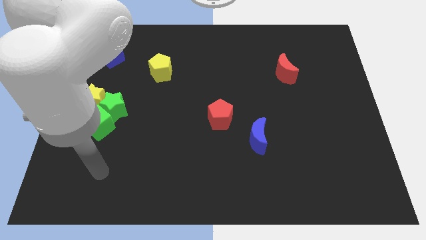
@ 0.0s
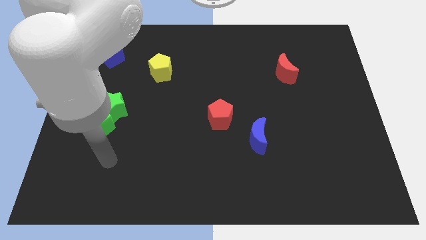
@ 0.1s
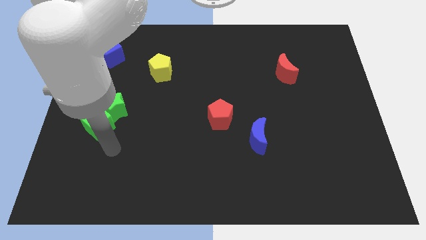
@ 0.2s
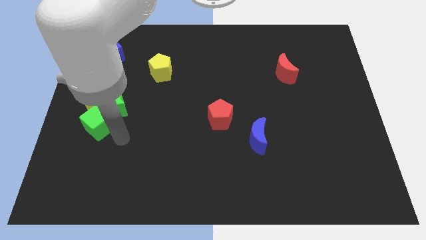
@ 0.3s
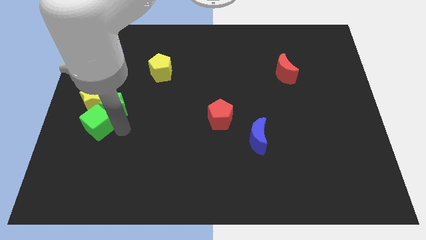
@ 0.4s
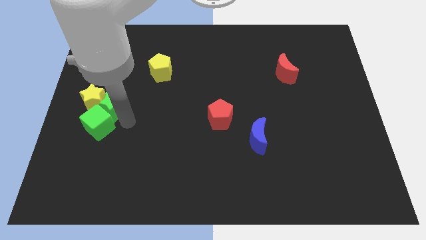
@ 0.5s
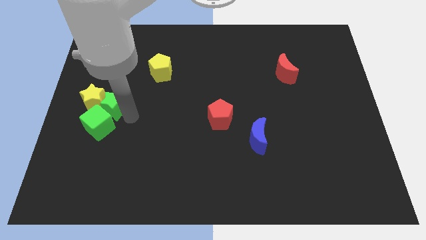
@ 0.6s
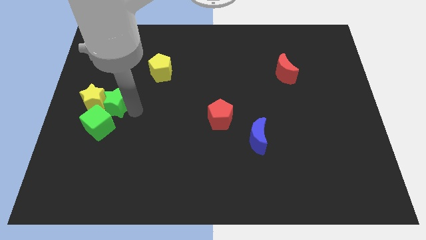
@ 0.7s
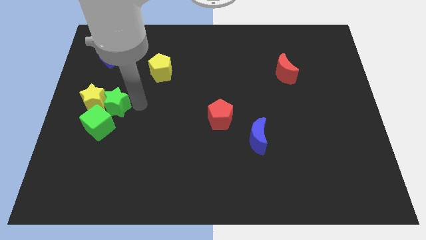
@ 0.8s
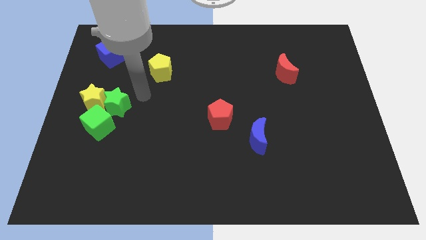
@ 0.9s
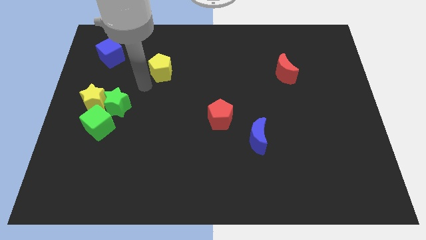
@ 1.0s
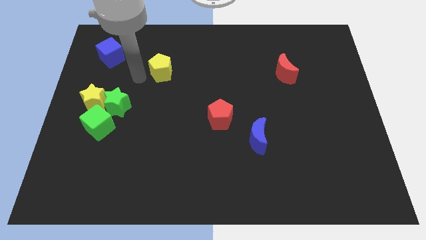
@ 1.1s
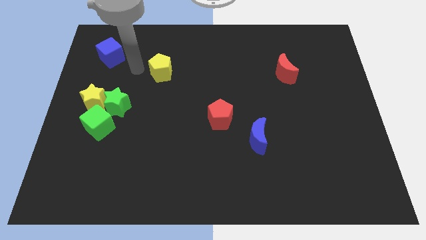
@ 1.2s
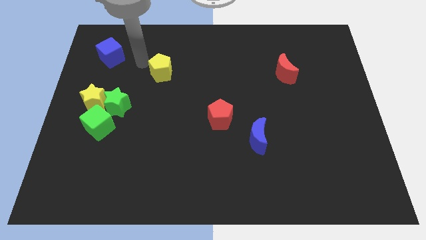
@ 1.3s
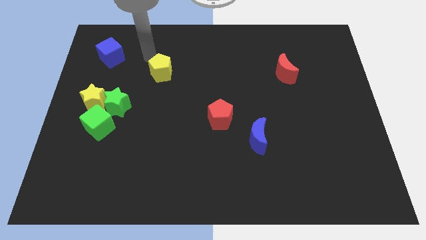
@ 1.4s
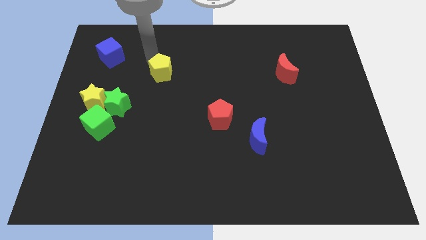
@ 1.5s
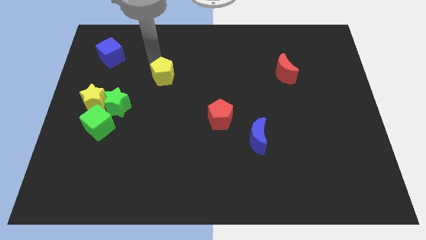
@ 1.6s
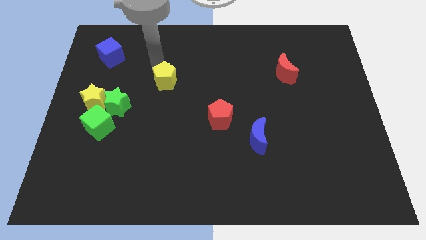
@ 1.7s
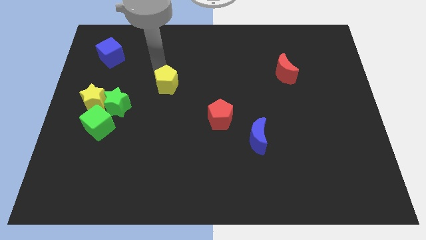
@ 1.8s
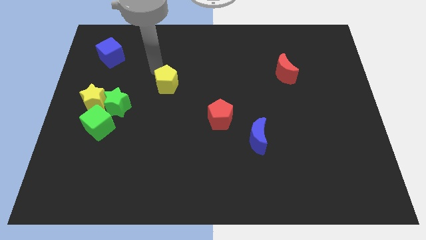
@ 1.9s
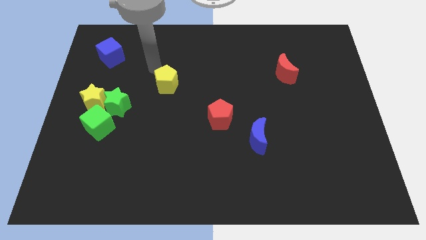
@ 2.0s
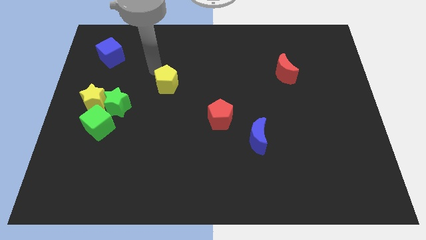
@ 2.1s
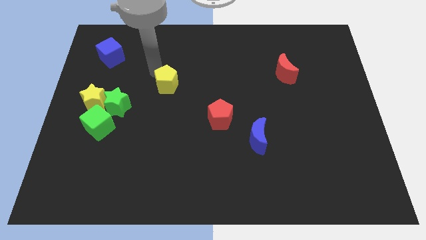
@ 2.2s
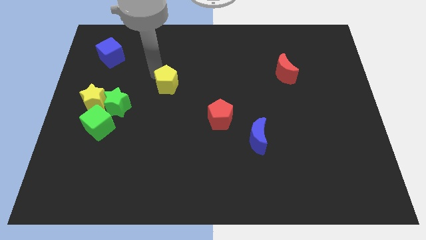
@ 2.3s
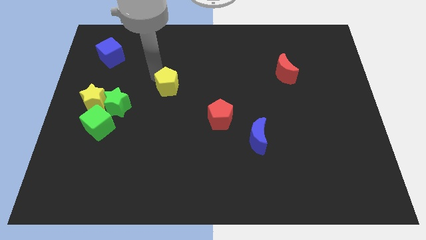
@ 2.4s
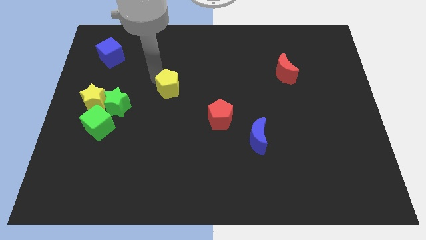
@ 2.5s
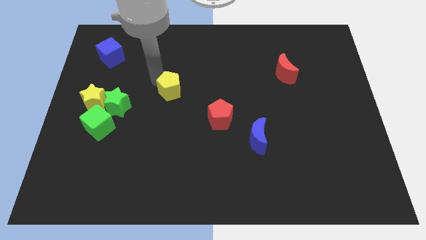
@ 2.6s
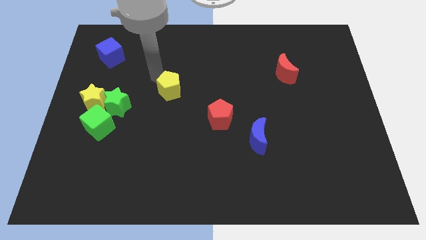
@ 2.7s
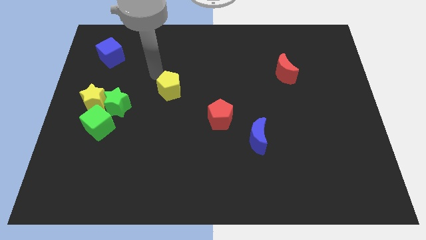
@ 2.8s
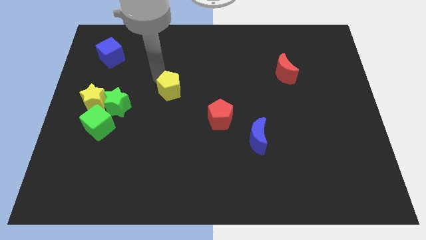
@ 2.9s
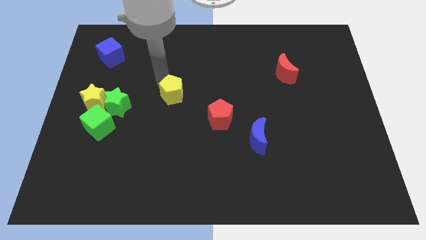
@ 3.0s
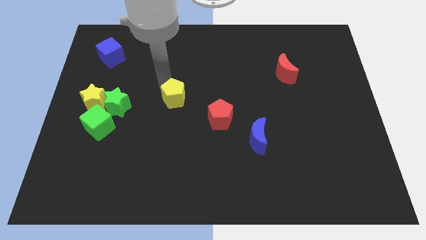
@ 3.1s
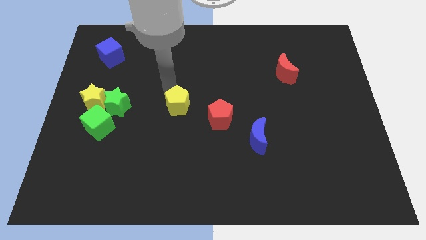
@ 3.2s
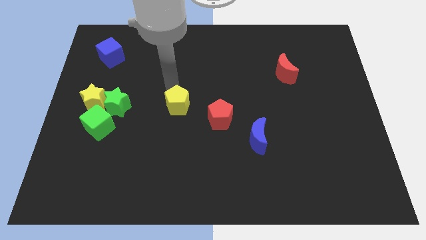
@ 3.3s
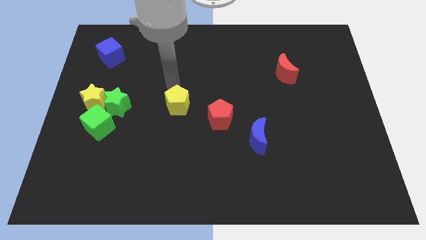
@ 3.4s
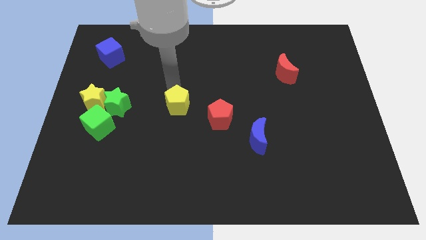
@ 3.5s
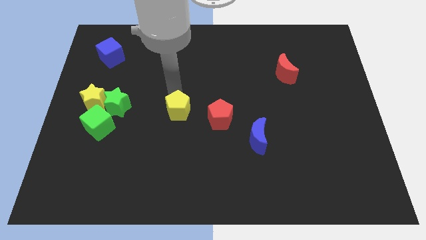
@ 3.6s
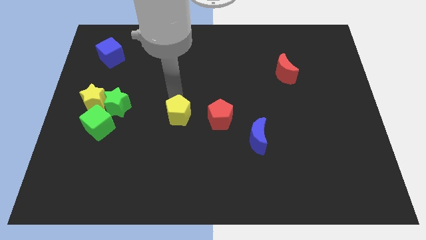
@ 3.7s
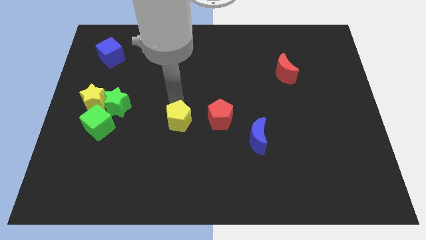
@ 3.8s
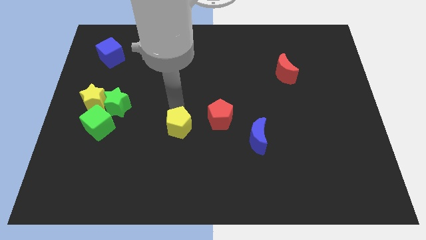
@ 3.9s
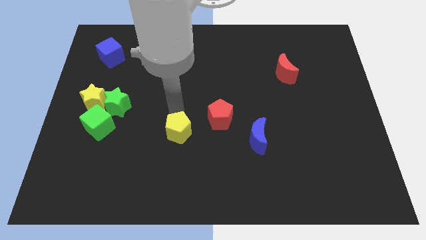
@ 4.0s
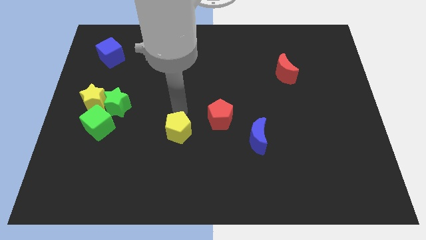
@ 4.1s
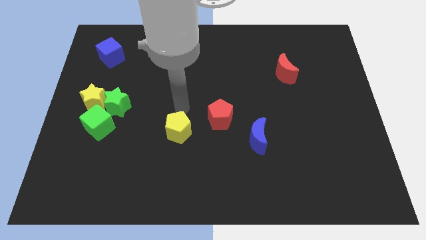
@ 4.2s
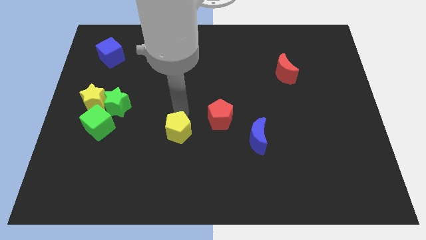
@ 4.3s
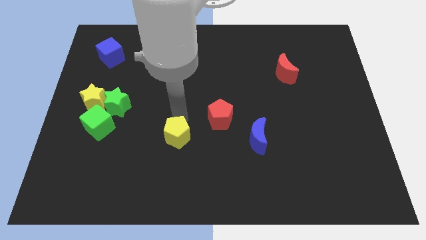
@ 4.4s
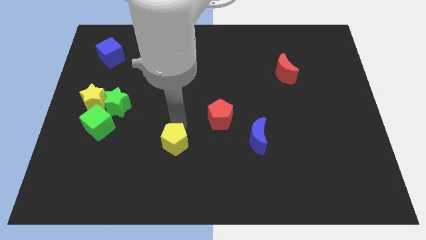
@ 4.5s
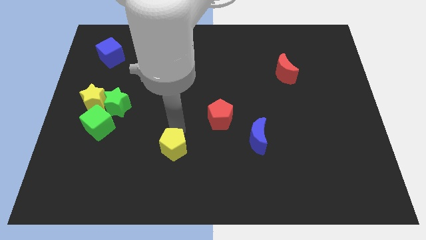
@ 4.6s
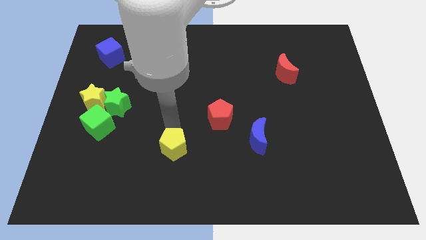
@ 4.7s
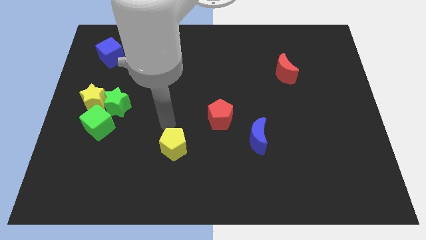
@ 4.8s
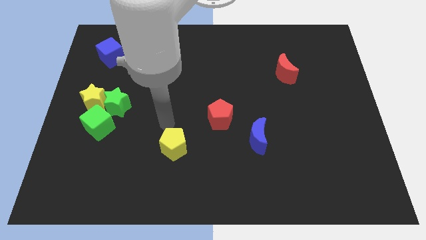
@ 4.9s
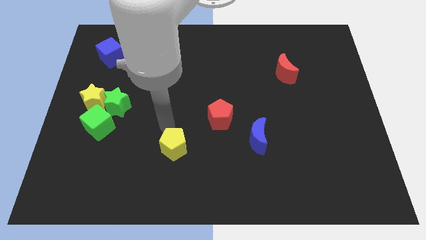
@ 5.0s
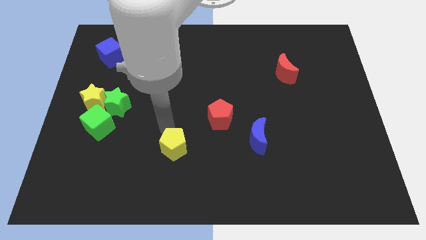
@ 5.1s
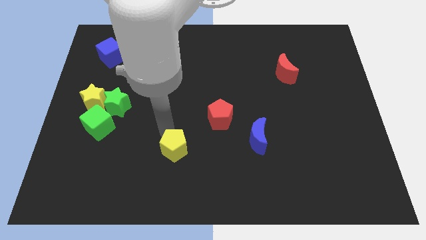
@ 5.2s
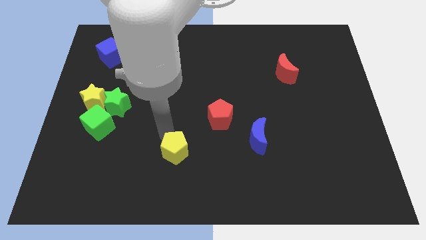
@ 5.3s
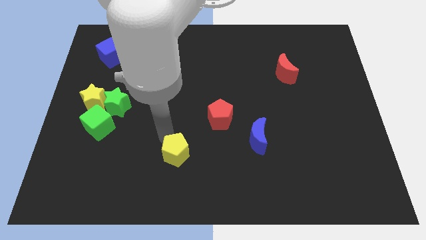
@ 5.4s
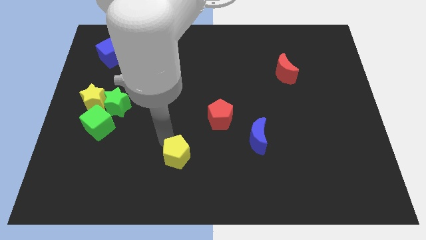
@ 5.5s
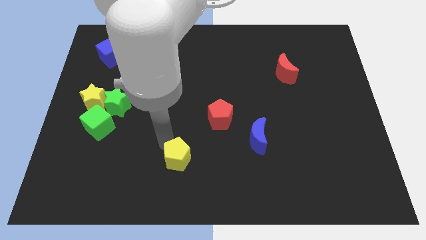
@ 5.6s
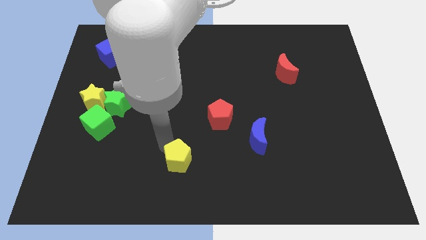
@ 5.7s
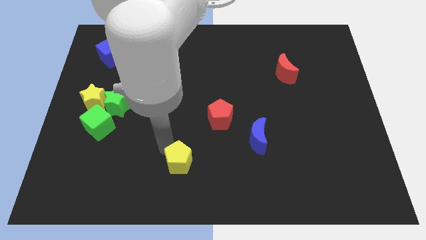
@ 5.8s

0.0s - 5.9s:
slide the yellow pentagon to the bottom
